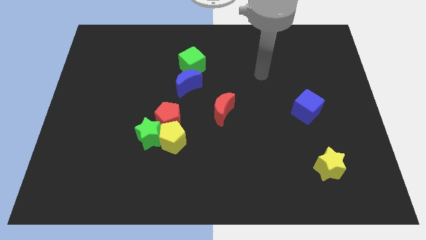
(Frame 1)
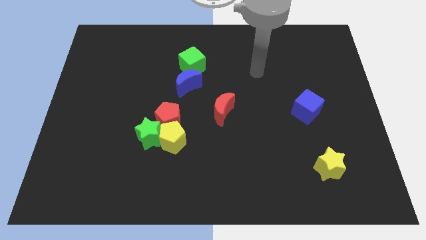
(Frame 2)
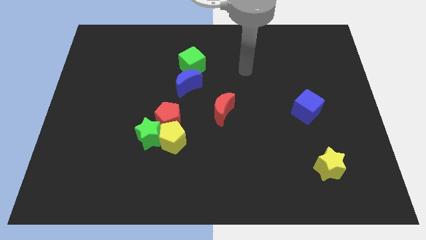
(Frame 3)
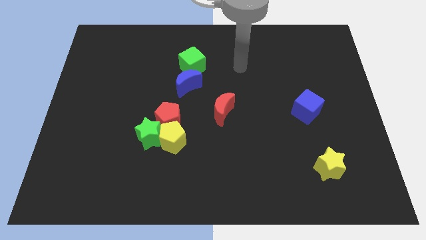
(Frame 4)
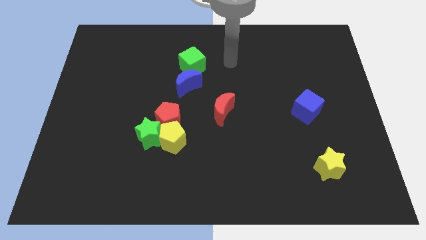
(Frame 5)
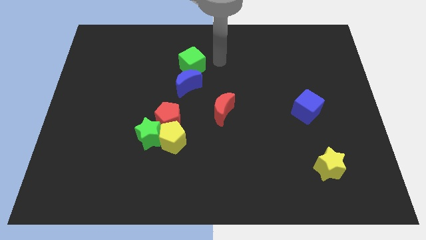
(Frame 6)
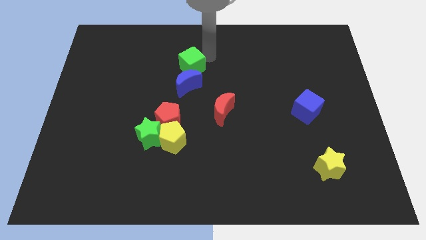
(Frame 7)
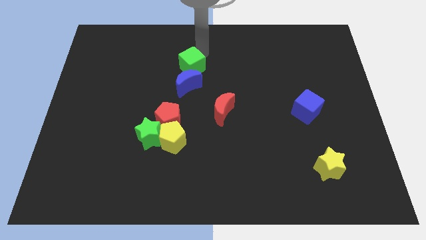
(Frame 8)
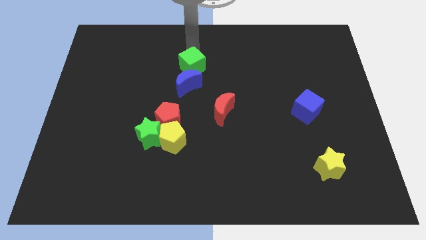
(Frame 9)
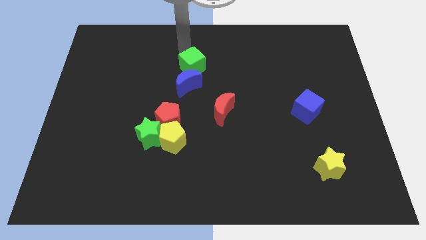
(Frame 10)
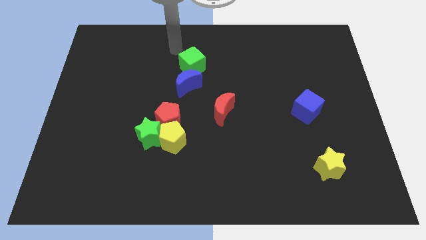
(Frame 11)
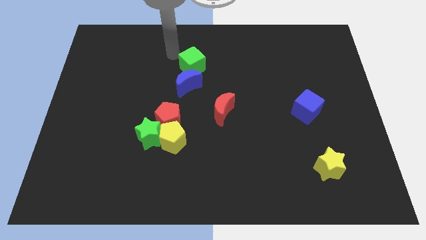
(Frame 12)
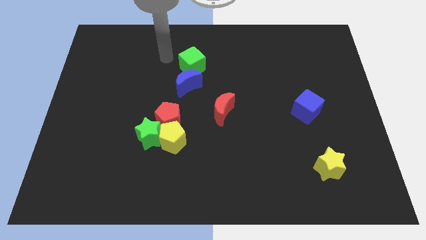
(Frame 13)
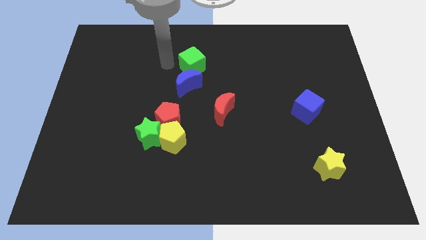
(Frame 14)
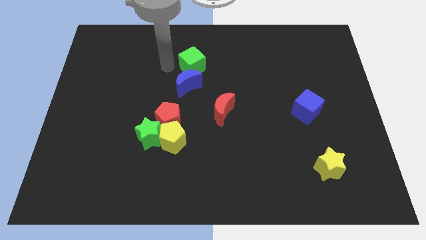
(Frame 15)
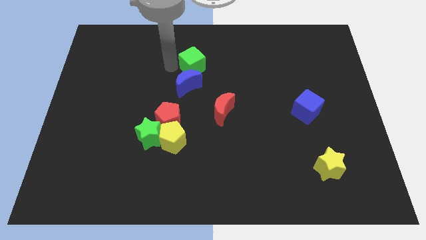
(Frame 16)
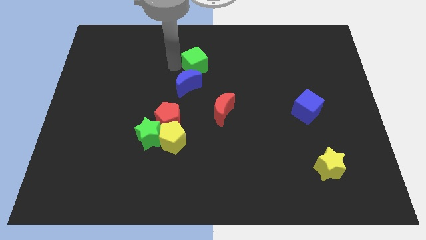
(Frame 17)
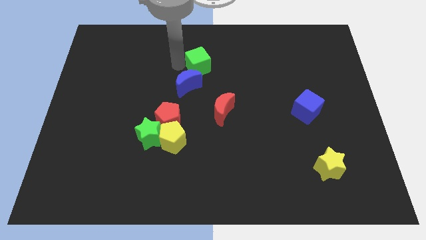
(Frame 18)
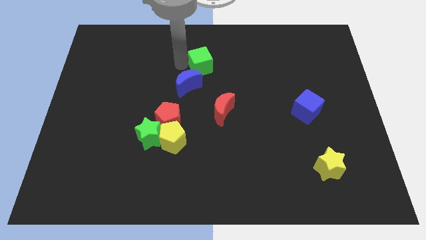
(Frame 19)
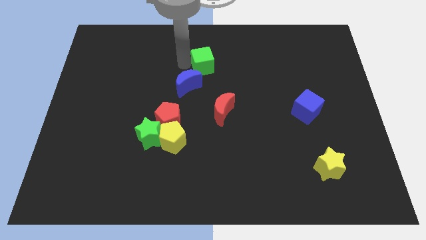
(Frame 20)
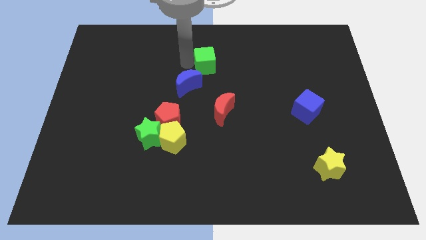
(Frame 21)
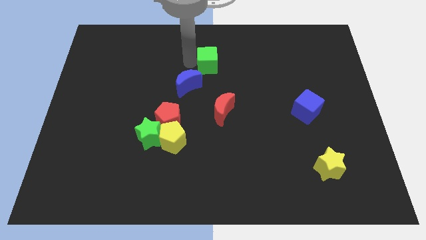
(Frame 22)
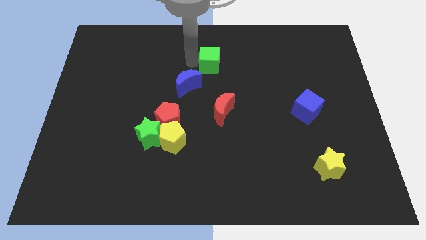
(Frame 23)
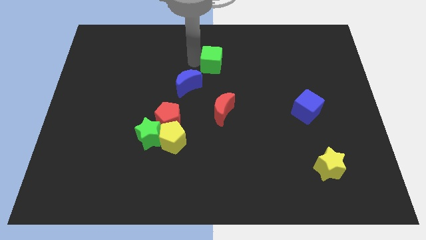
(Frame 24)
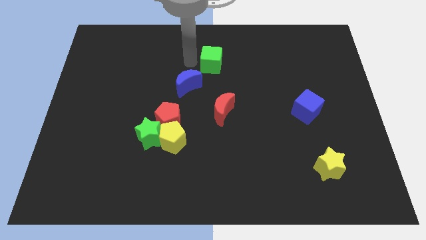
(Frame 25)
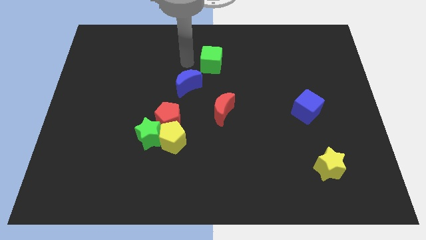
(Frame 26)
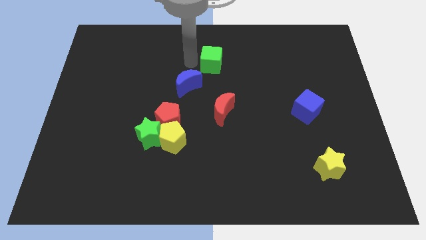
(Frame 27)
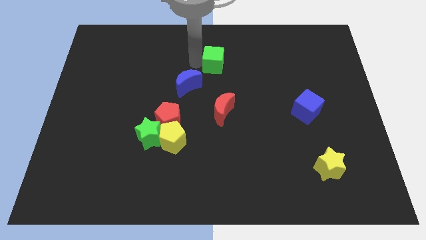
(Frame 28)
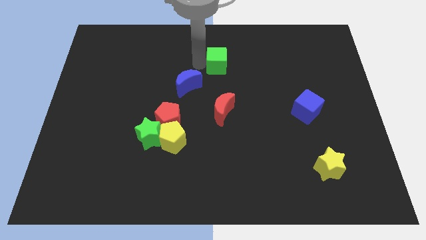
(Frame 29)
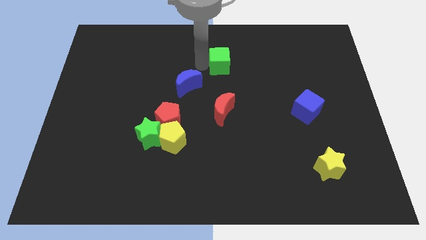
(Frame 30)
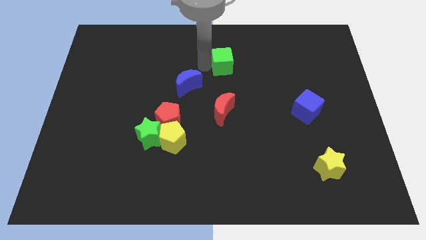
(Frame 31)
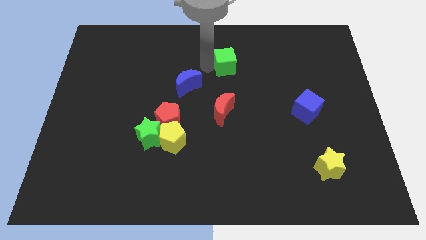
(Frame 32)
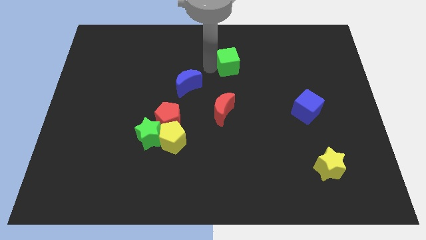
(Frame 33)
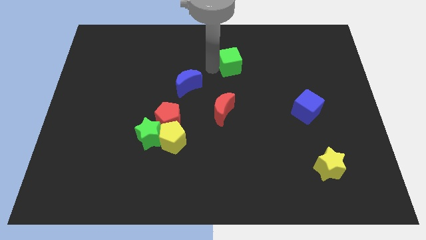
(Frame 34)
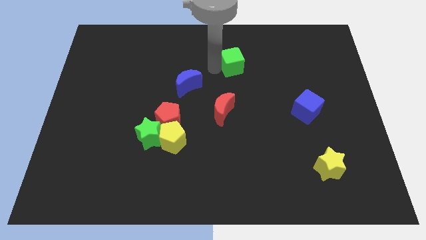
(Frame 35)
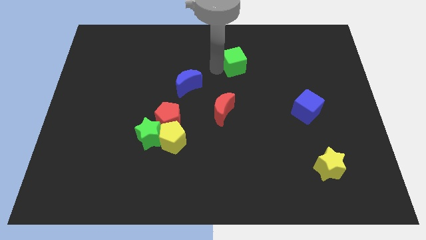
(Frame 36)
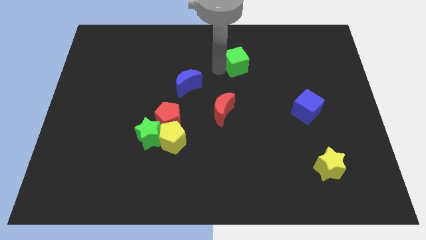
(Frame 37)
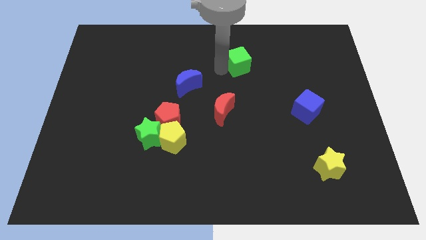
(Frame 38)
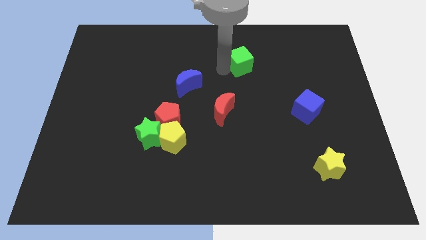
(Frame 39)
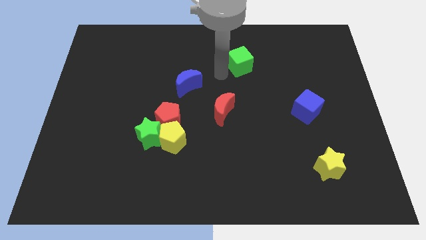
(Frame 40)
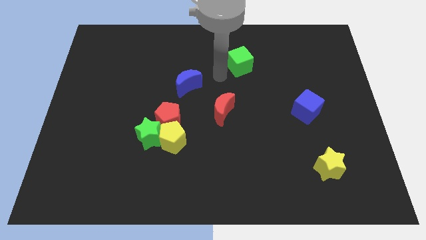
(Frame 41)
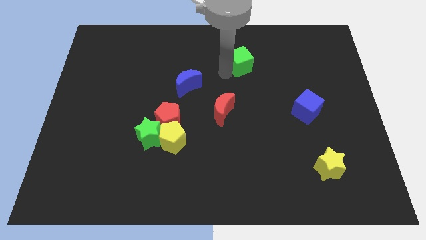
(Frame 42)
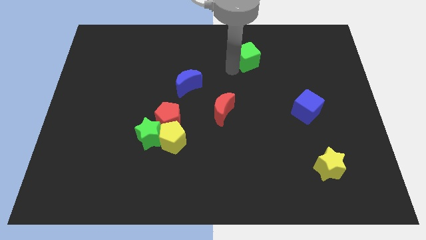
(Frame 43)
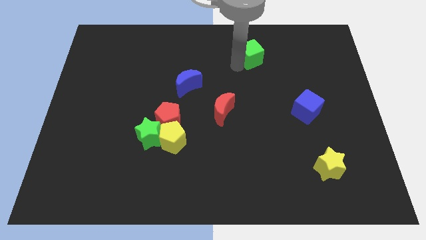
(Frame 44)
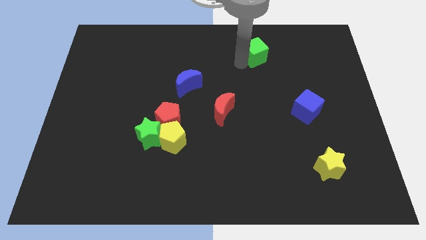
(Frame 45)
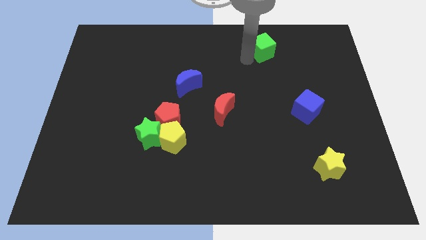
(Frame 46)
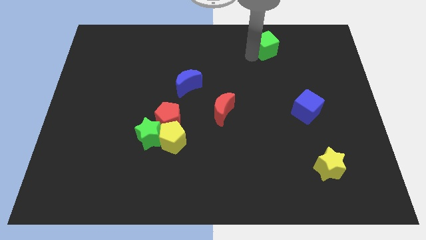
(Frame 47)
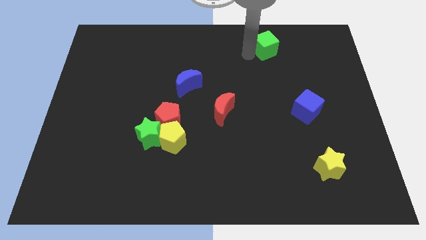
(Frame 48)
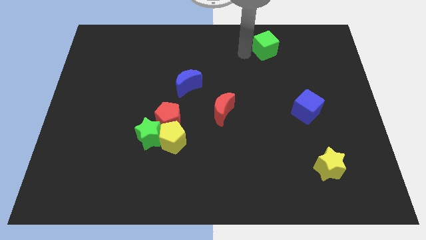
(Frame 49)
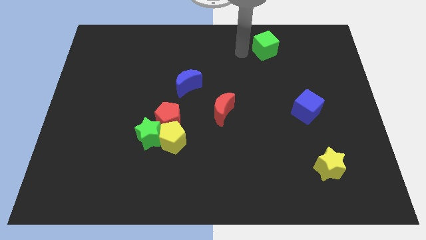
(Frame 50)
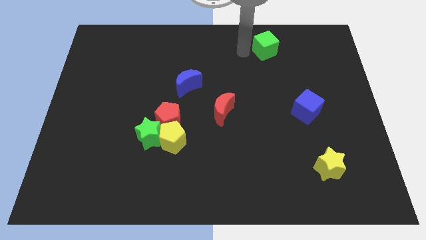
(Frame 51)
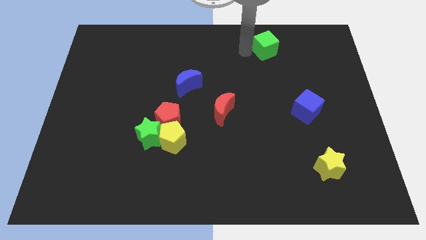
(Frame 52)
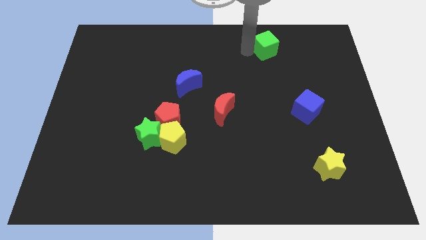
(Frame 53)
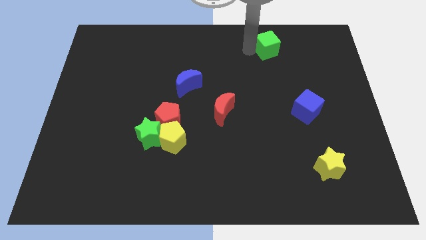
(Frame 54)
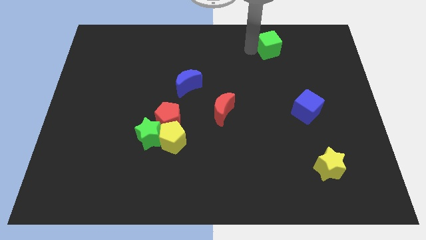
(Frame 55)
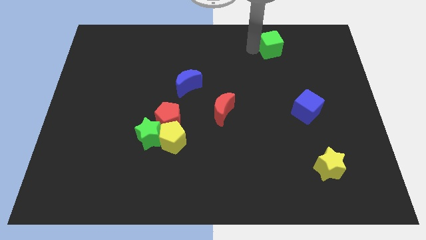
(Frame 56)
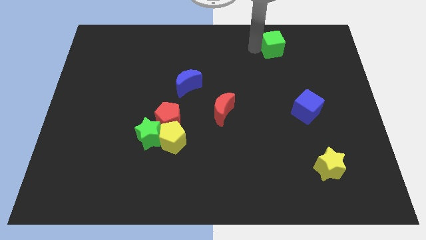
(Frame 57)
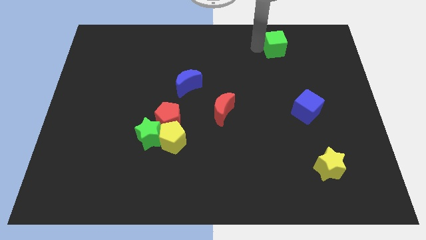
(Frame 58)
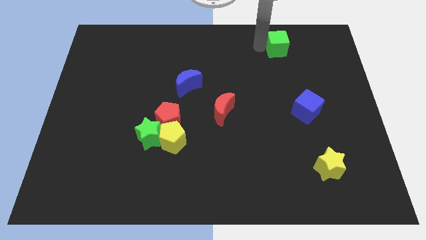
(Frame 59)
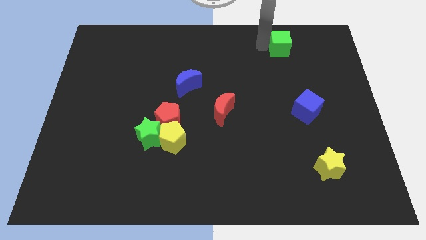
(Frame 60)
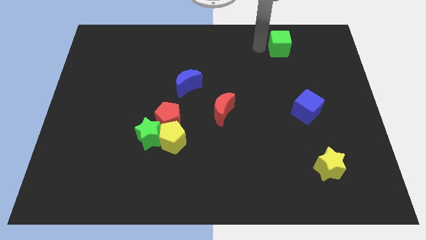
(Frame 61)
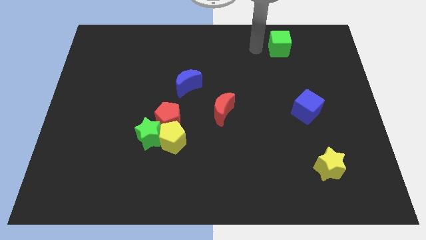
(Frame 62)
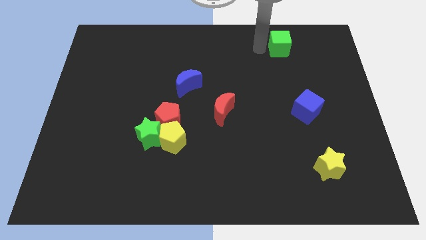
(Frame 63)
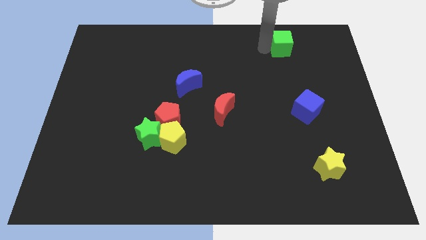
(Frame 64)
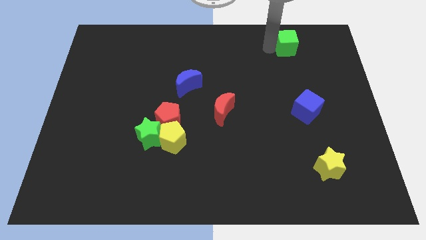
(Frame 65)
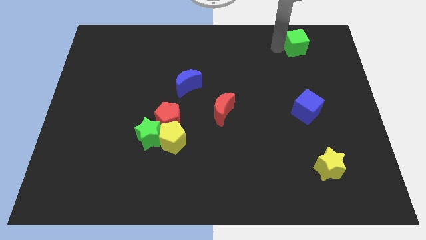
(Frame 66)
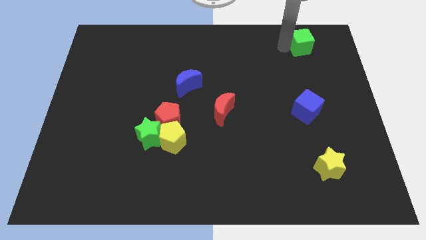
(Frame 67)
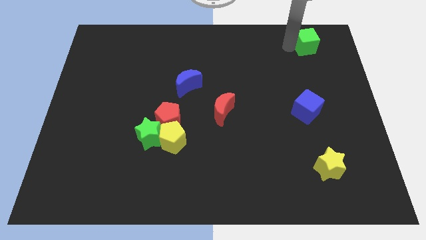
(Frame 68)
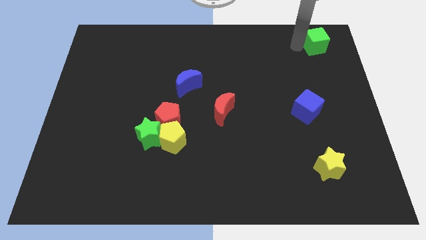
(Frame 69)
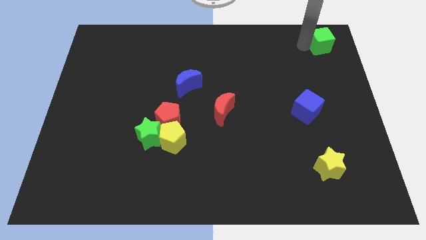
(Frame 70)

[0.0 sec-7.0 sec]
slide the green cube to the upper right corner
